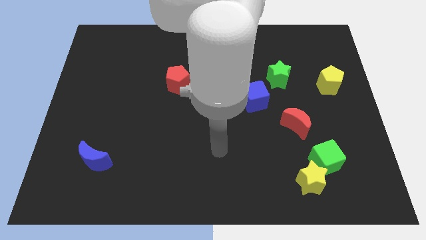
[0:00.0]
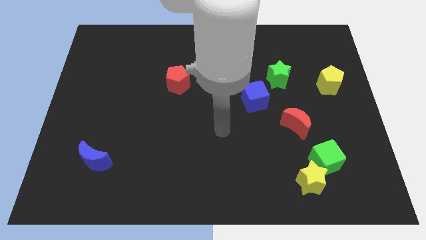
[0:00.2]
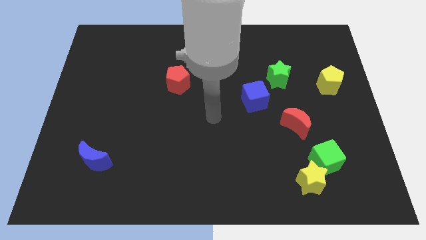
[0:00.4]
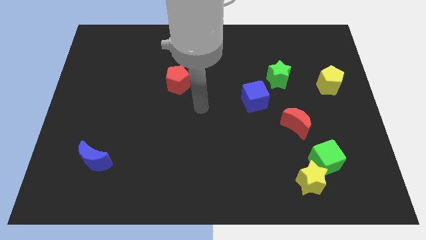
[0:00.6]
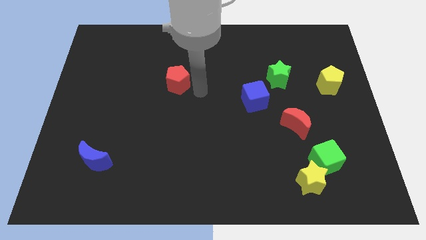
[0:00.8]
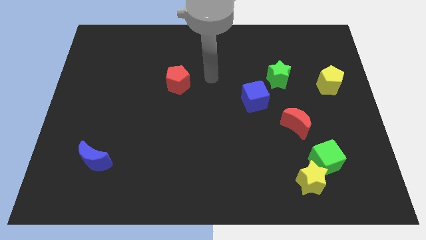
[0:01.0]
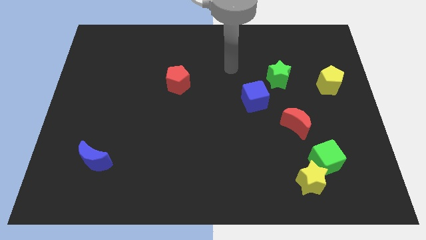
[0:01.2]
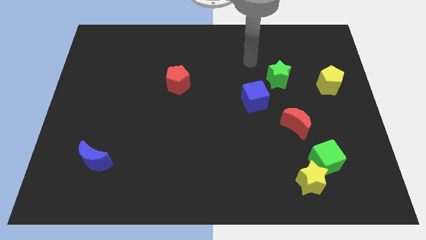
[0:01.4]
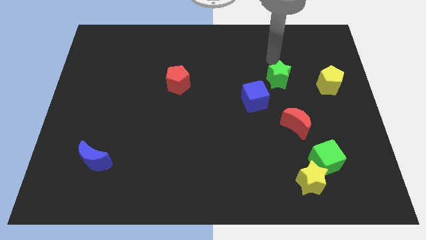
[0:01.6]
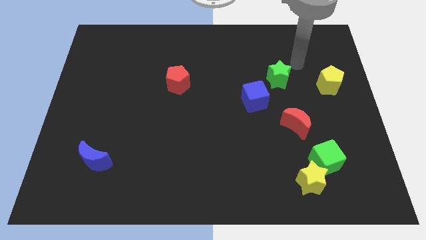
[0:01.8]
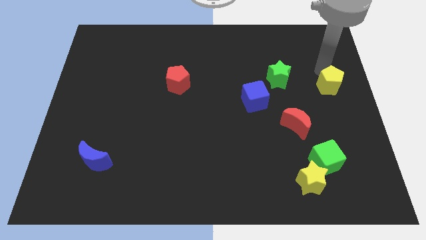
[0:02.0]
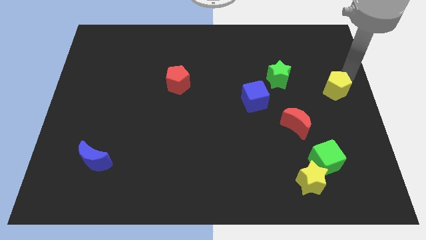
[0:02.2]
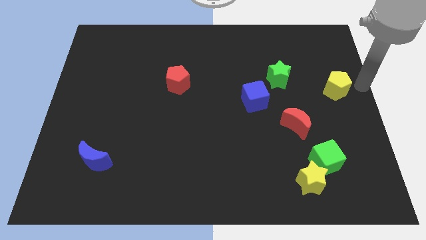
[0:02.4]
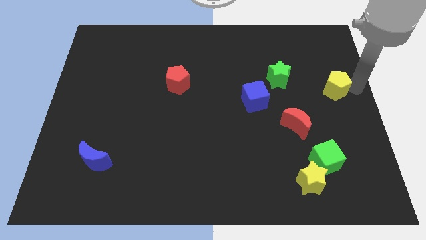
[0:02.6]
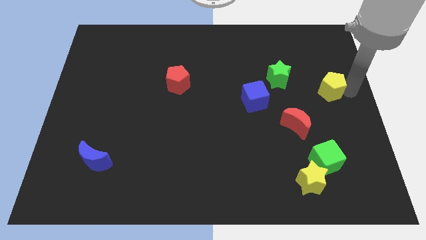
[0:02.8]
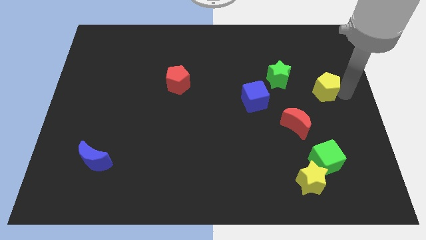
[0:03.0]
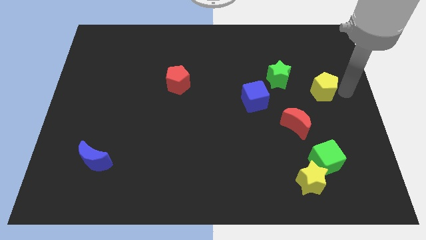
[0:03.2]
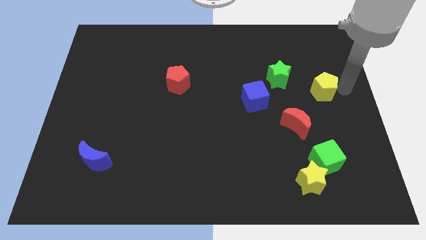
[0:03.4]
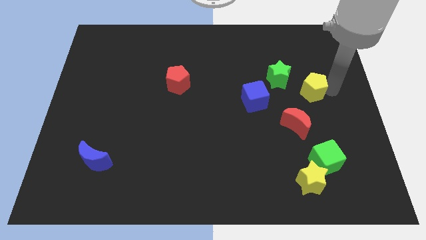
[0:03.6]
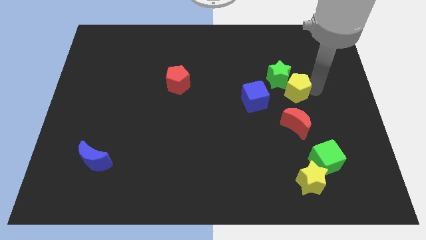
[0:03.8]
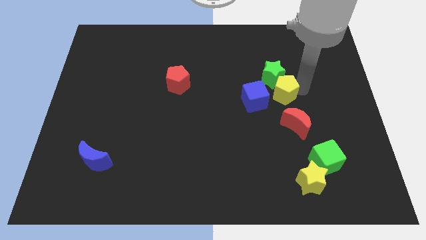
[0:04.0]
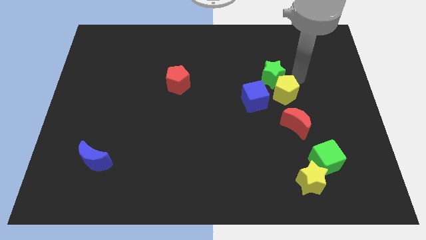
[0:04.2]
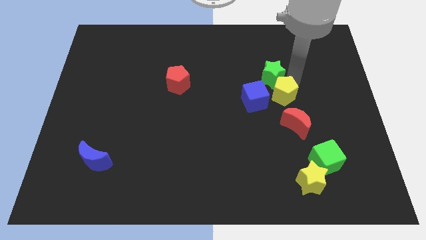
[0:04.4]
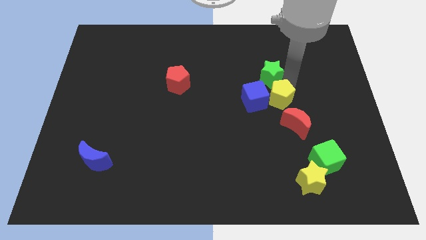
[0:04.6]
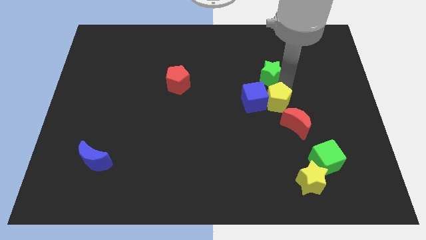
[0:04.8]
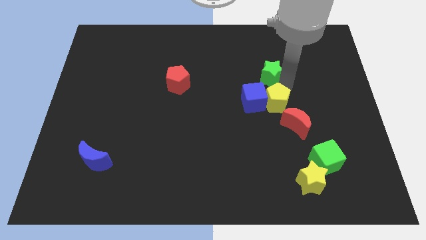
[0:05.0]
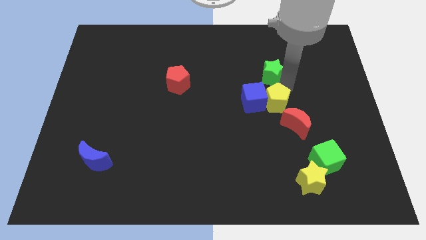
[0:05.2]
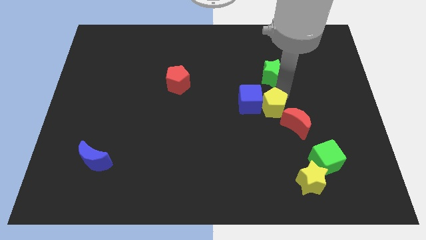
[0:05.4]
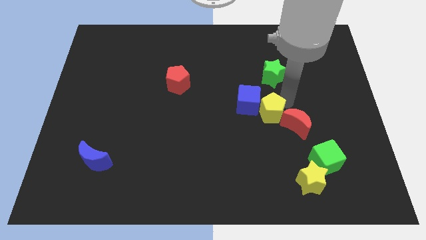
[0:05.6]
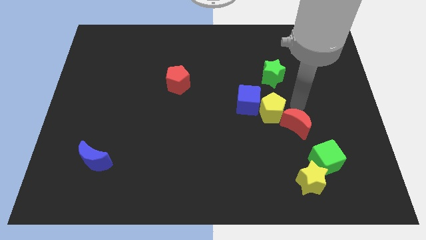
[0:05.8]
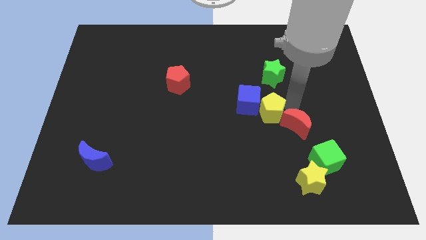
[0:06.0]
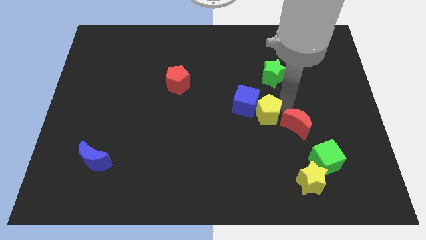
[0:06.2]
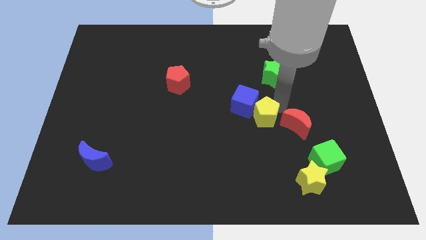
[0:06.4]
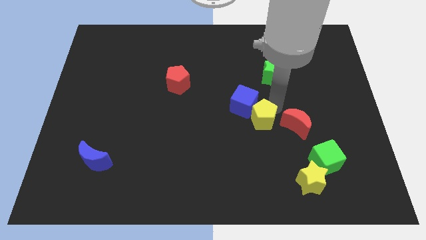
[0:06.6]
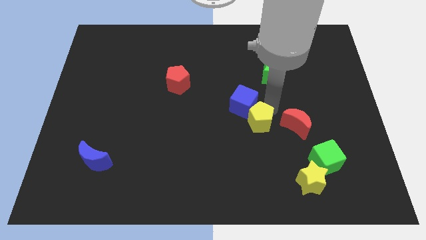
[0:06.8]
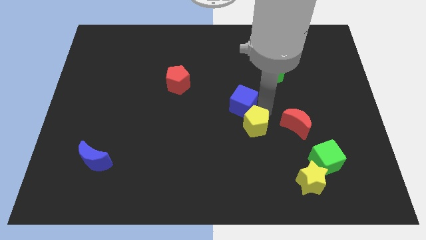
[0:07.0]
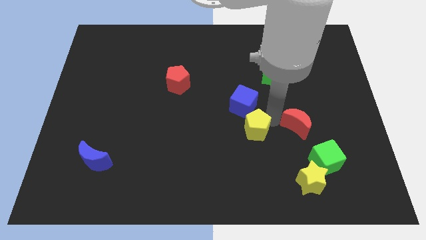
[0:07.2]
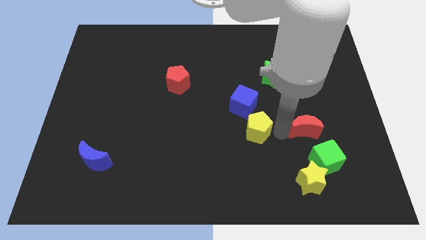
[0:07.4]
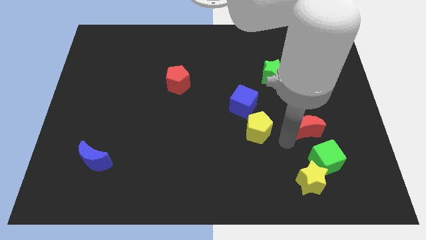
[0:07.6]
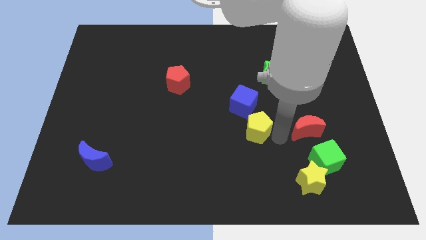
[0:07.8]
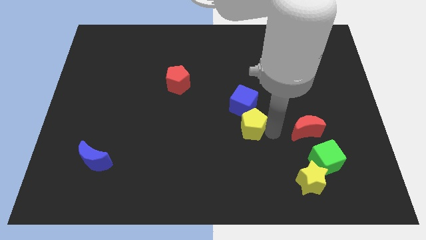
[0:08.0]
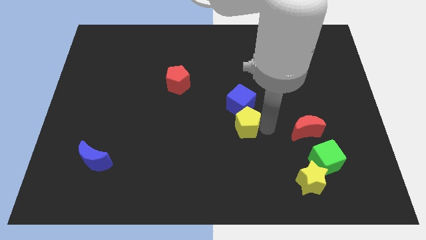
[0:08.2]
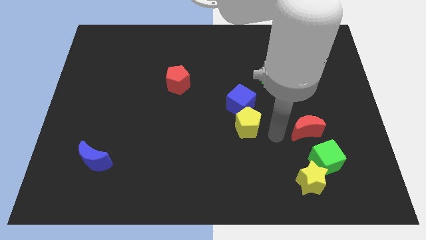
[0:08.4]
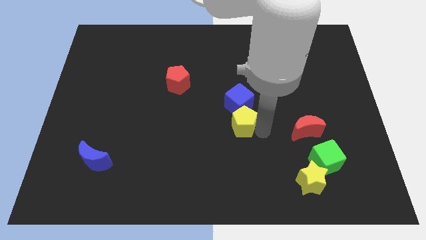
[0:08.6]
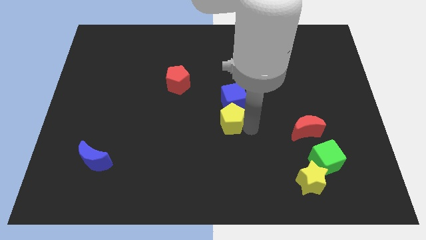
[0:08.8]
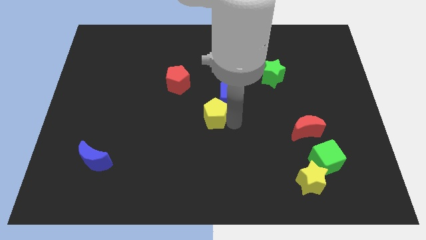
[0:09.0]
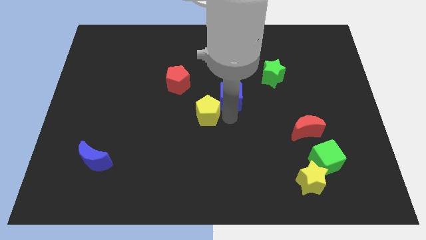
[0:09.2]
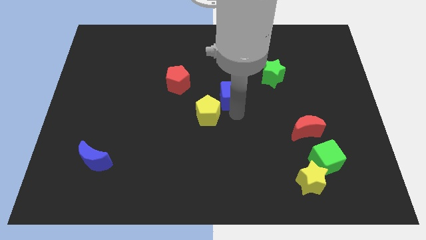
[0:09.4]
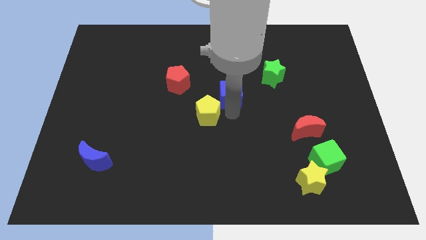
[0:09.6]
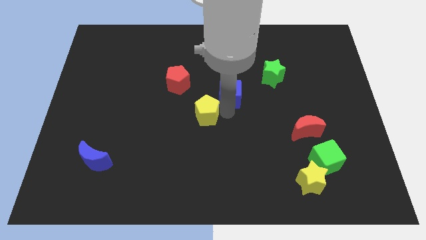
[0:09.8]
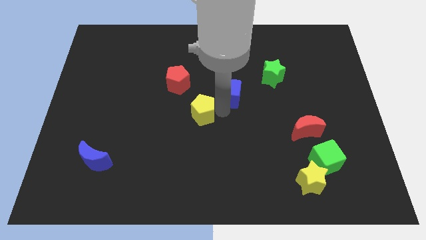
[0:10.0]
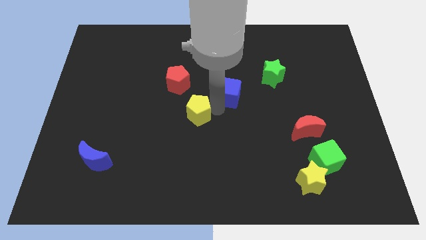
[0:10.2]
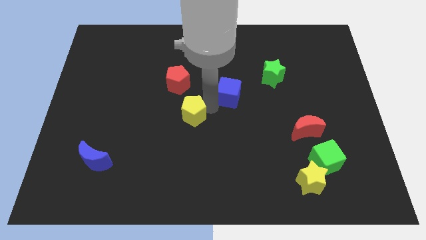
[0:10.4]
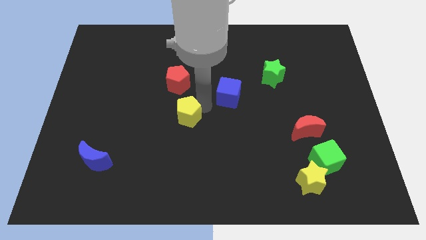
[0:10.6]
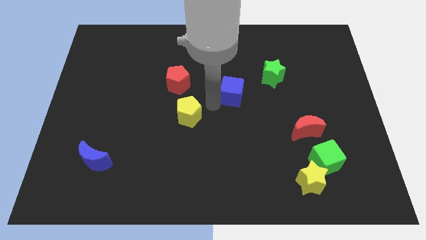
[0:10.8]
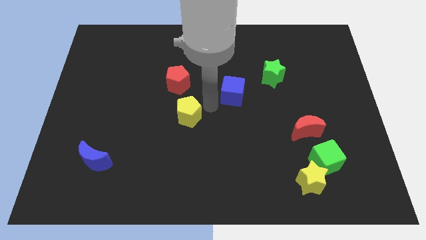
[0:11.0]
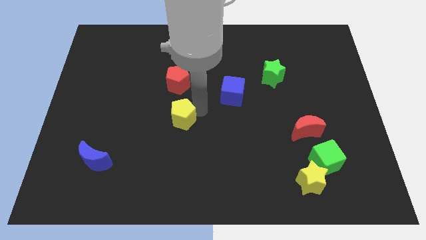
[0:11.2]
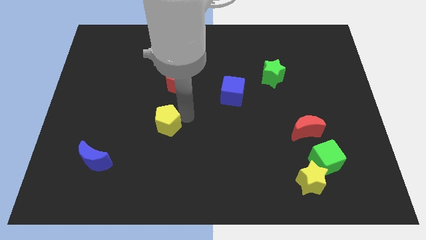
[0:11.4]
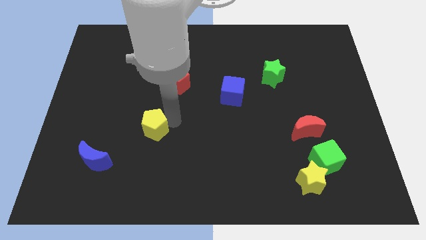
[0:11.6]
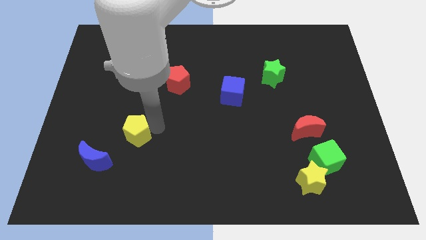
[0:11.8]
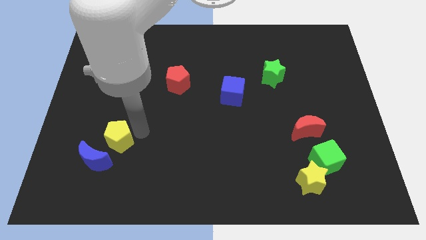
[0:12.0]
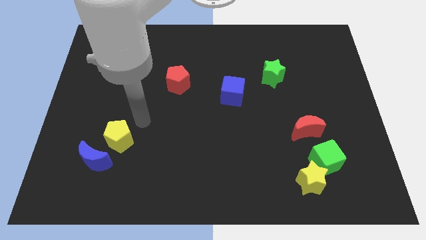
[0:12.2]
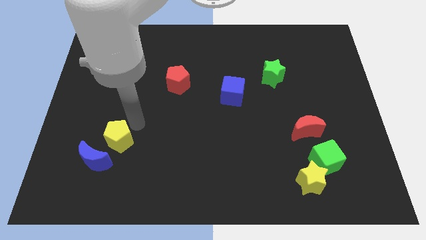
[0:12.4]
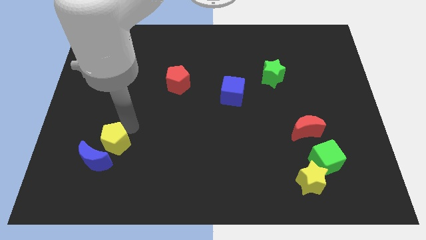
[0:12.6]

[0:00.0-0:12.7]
slide the yellow pentagon next to the blue moon

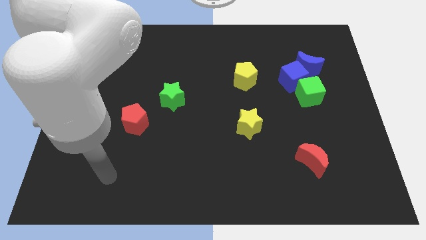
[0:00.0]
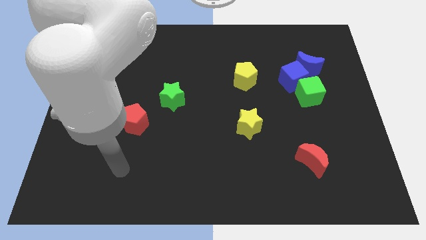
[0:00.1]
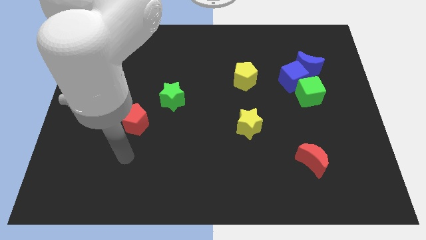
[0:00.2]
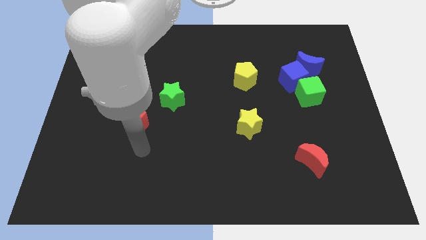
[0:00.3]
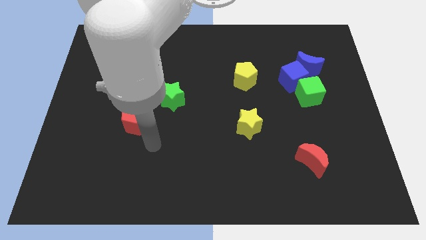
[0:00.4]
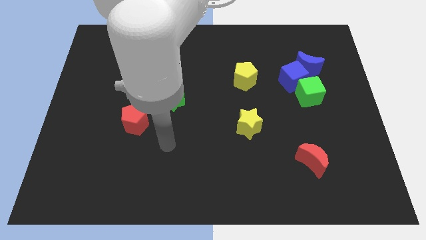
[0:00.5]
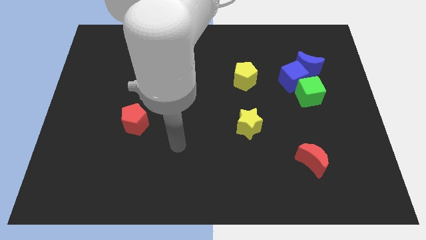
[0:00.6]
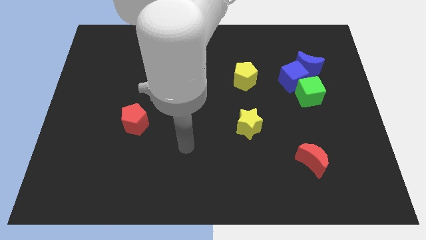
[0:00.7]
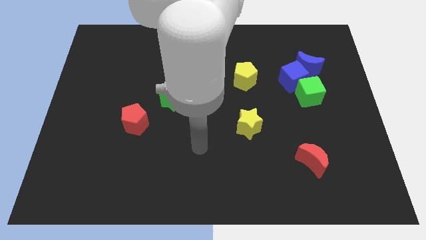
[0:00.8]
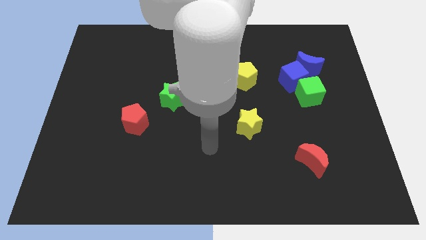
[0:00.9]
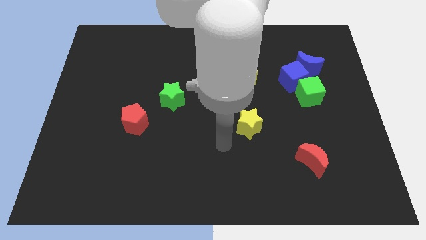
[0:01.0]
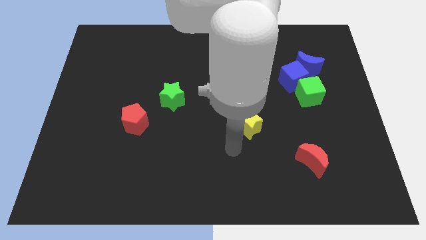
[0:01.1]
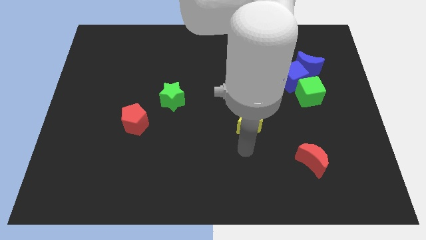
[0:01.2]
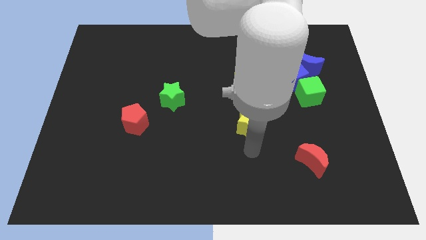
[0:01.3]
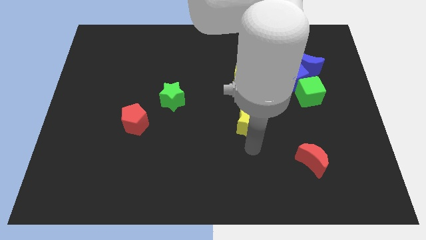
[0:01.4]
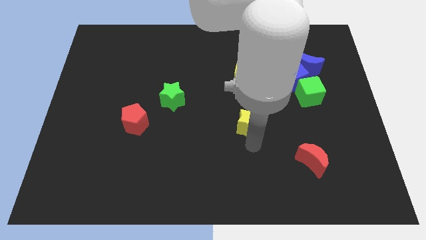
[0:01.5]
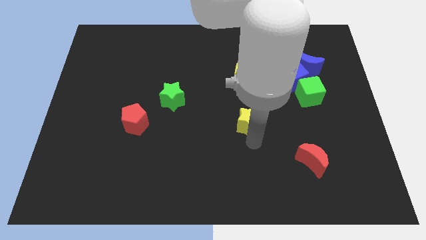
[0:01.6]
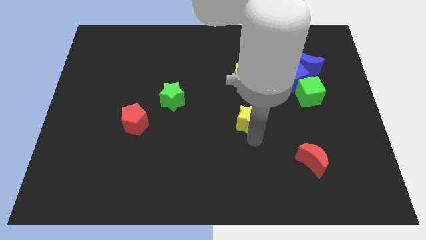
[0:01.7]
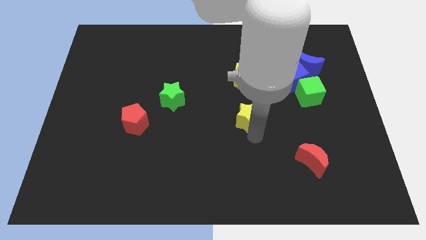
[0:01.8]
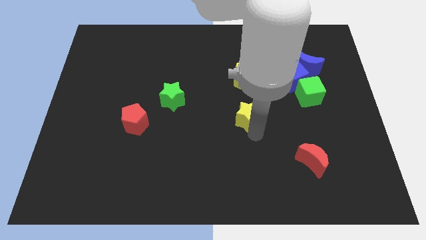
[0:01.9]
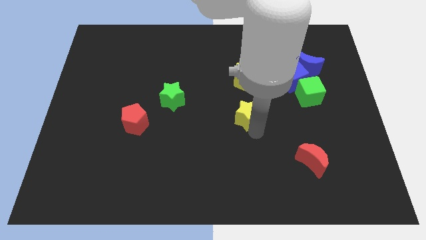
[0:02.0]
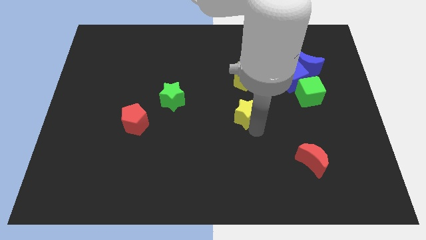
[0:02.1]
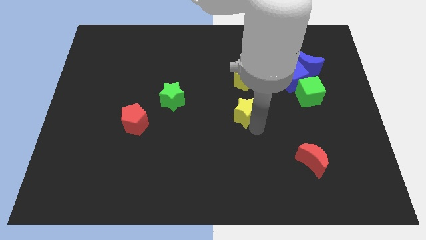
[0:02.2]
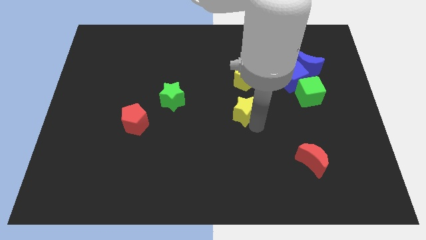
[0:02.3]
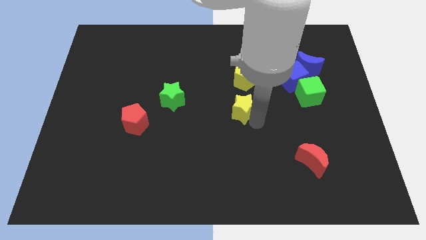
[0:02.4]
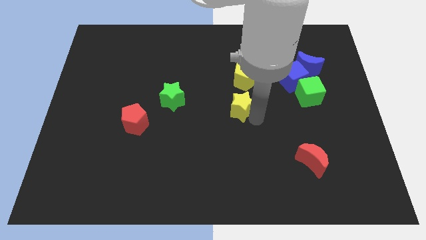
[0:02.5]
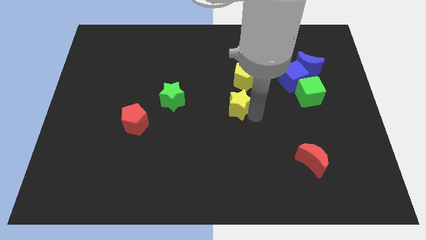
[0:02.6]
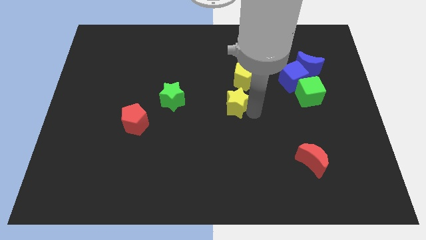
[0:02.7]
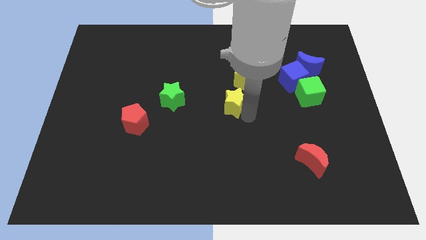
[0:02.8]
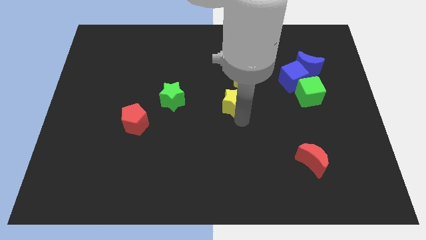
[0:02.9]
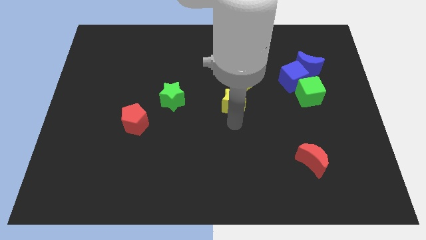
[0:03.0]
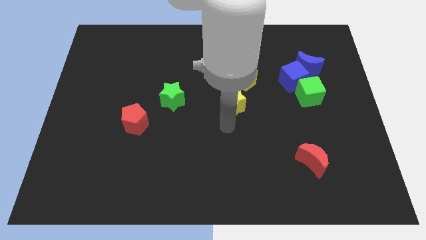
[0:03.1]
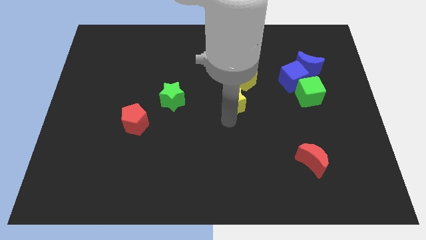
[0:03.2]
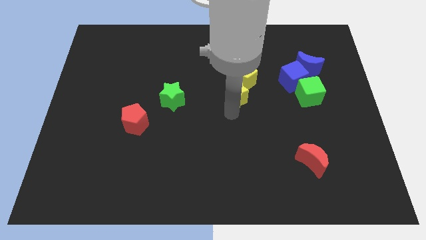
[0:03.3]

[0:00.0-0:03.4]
put the yellow star next to the yellow pentagon
